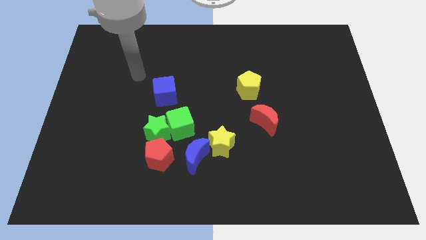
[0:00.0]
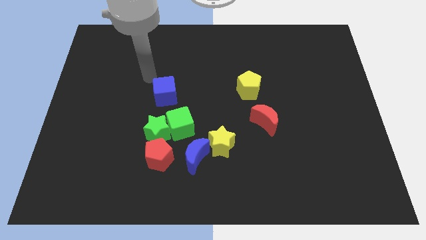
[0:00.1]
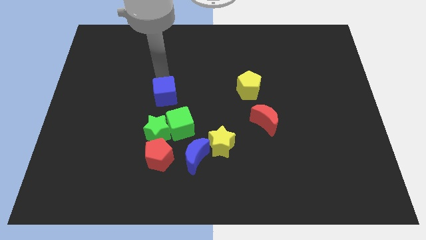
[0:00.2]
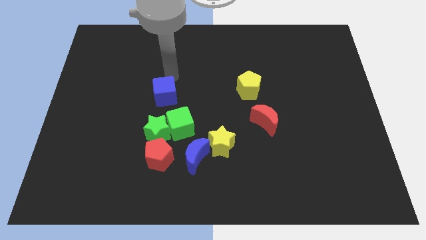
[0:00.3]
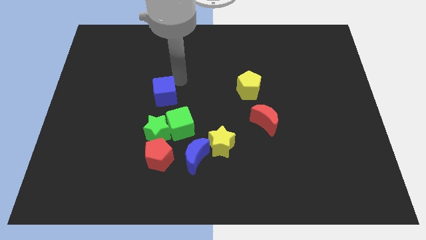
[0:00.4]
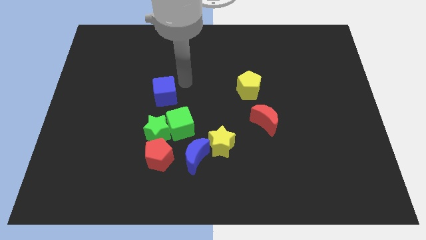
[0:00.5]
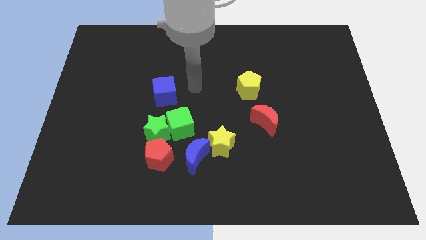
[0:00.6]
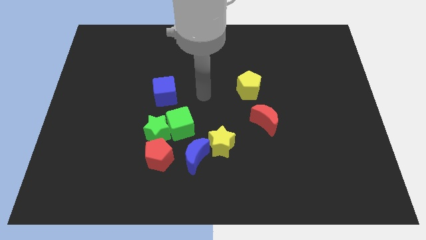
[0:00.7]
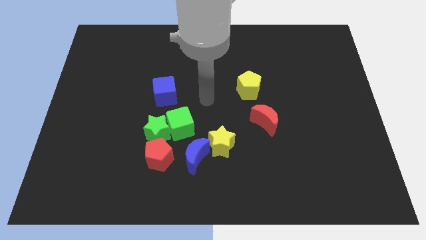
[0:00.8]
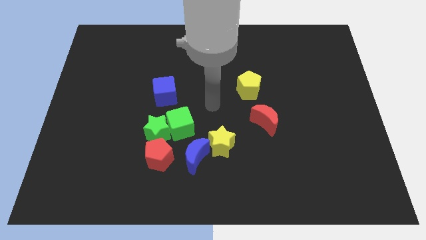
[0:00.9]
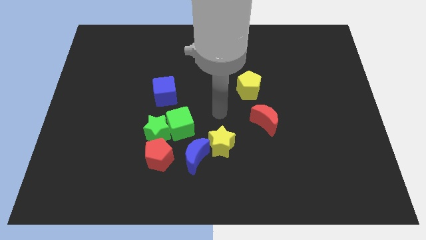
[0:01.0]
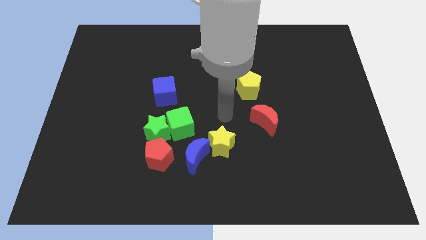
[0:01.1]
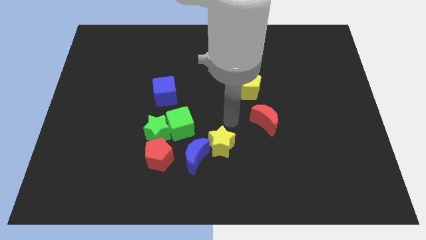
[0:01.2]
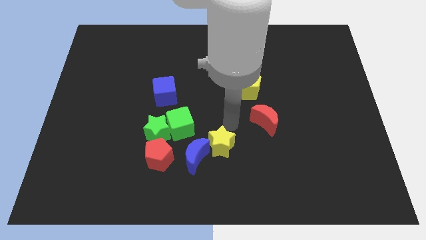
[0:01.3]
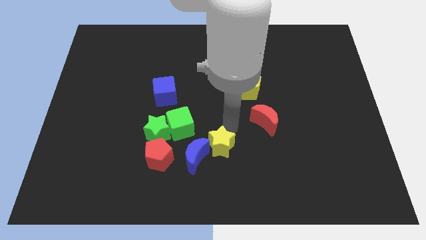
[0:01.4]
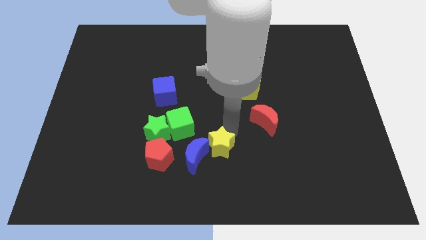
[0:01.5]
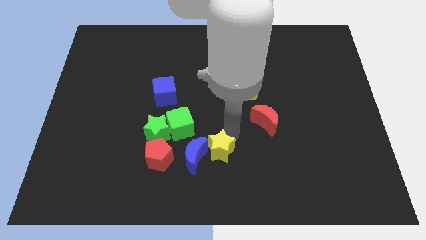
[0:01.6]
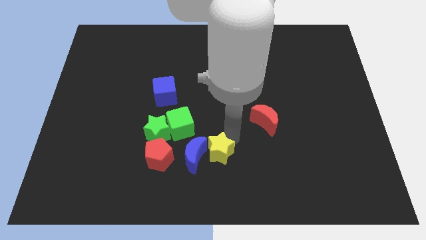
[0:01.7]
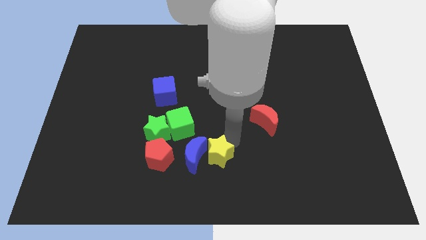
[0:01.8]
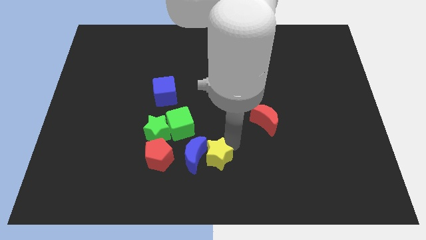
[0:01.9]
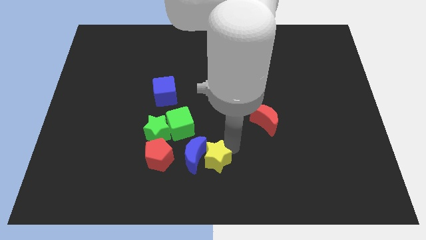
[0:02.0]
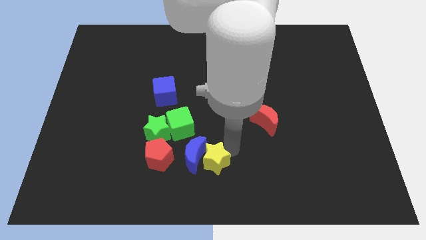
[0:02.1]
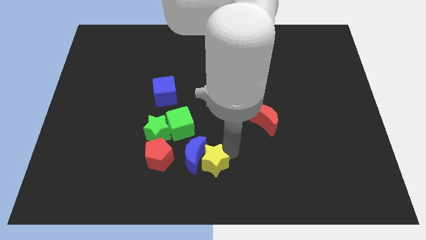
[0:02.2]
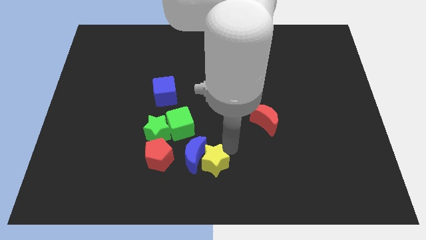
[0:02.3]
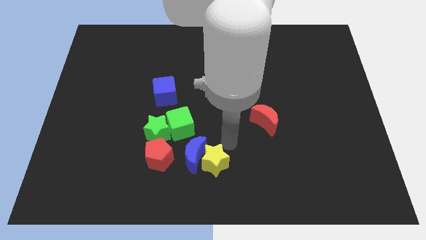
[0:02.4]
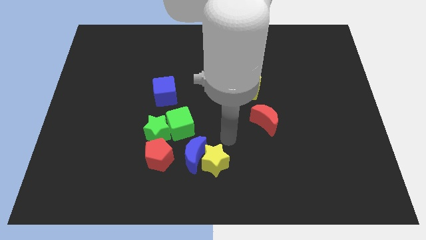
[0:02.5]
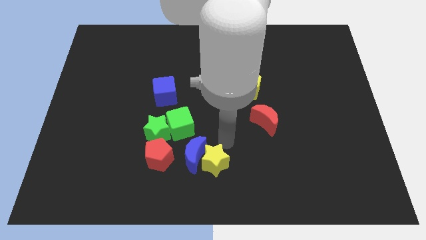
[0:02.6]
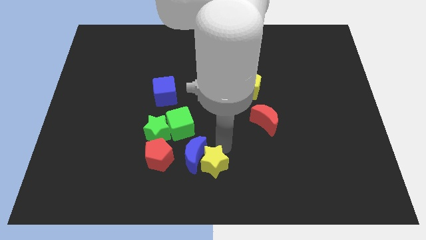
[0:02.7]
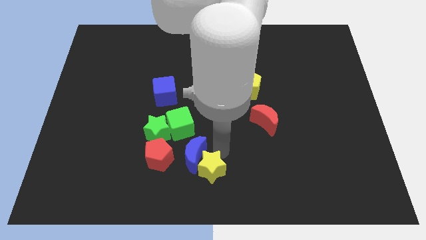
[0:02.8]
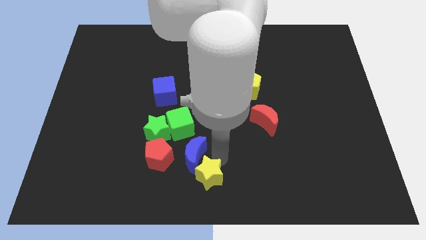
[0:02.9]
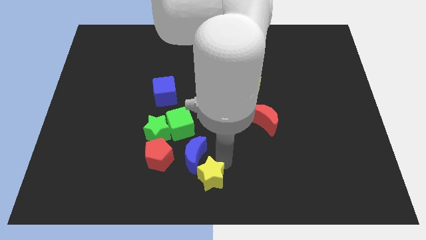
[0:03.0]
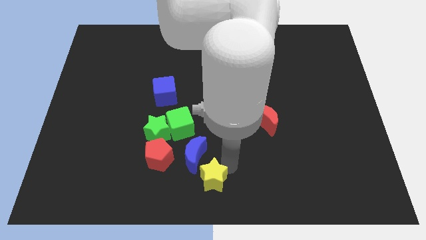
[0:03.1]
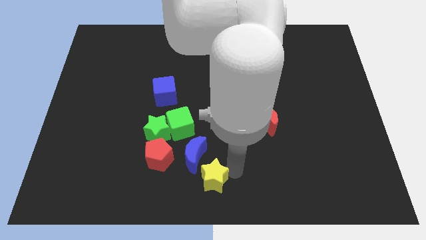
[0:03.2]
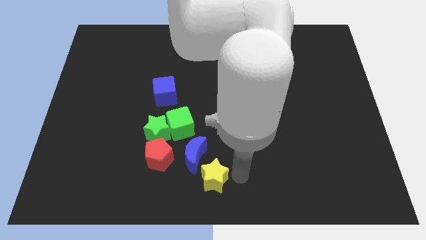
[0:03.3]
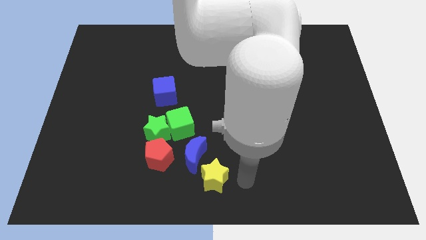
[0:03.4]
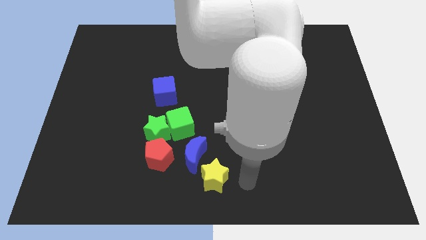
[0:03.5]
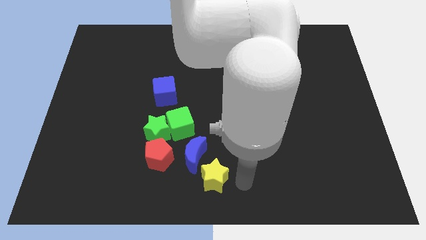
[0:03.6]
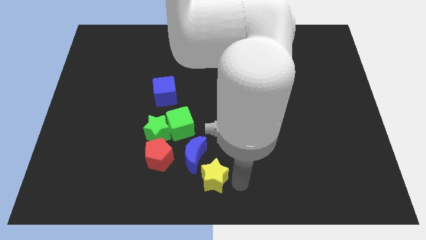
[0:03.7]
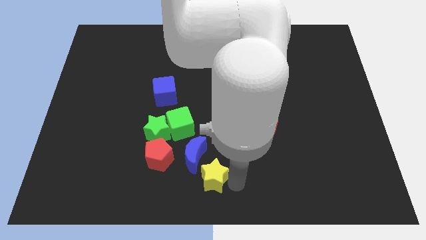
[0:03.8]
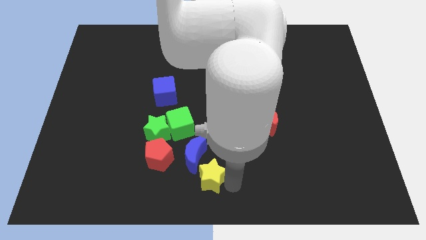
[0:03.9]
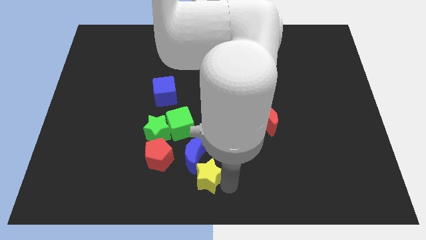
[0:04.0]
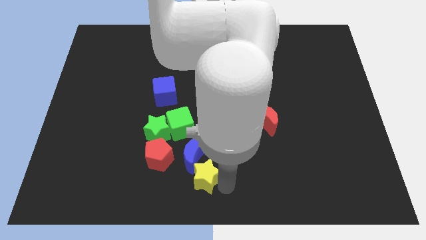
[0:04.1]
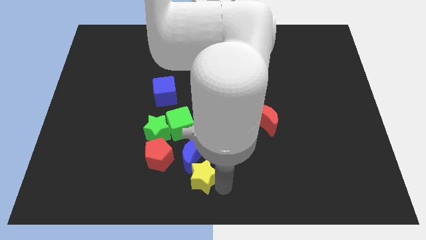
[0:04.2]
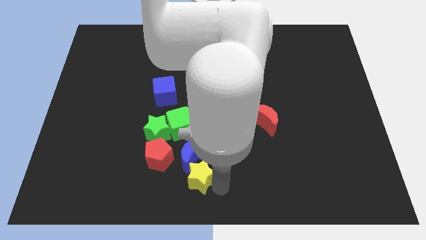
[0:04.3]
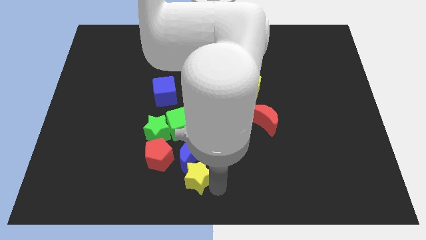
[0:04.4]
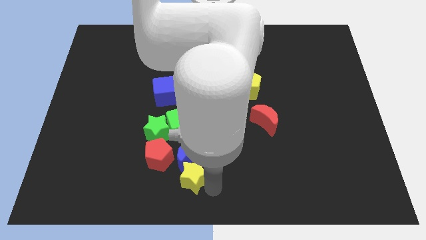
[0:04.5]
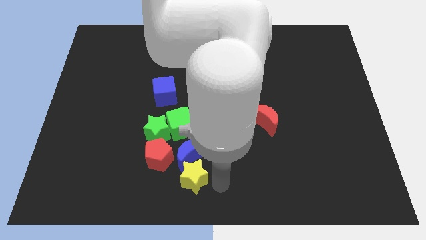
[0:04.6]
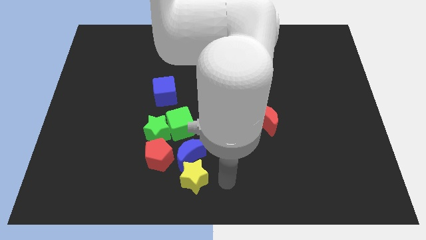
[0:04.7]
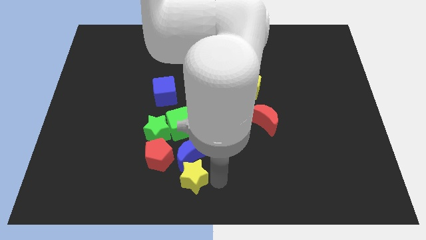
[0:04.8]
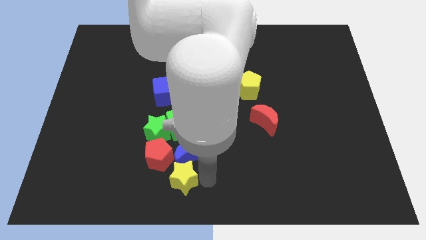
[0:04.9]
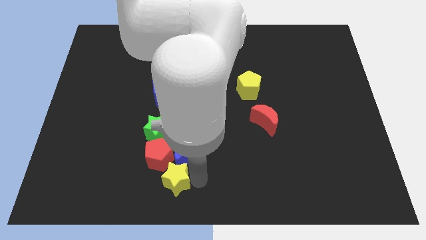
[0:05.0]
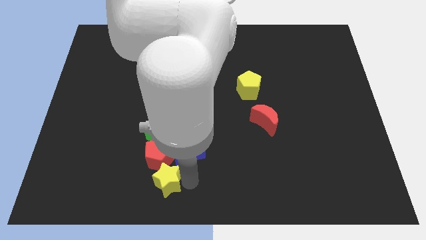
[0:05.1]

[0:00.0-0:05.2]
push the yellow star to the bottom of the green star

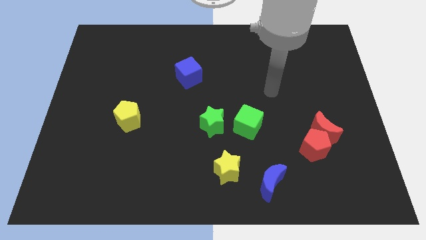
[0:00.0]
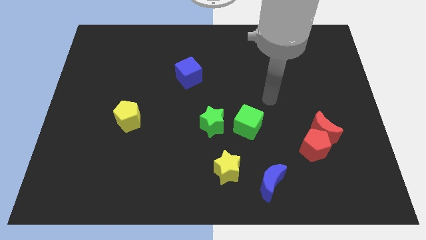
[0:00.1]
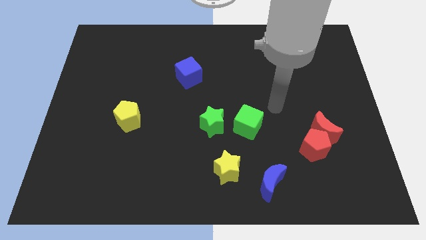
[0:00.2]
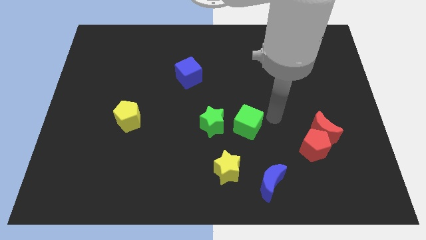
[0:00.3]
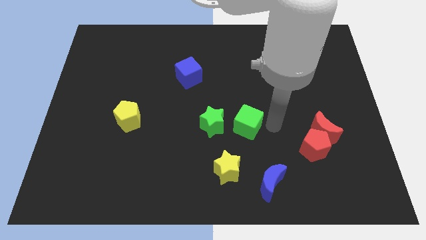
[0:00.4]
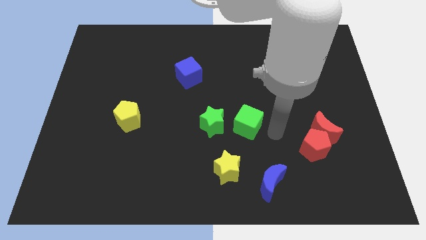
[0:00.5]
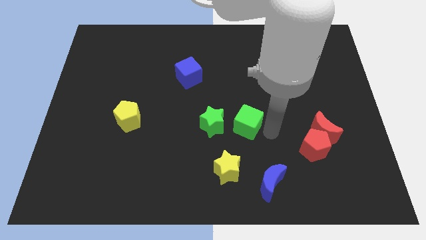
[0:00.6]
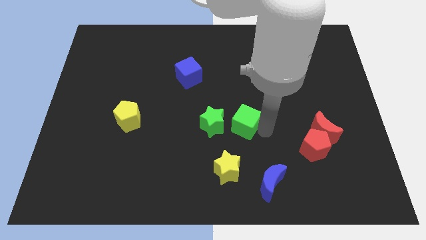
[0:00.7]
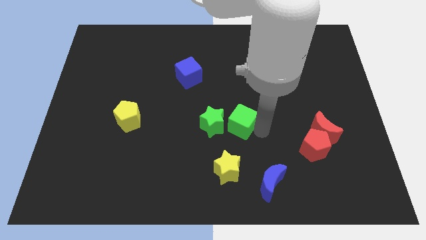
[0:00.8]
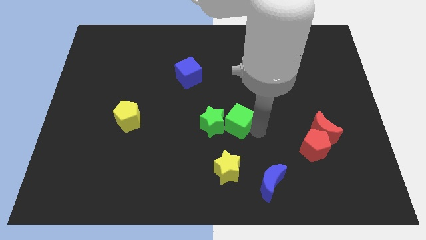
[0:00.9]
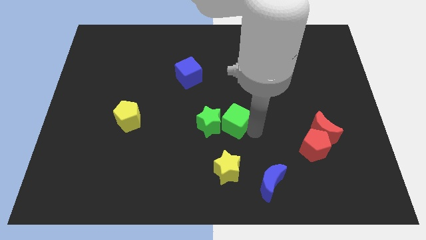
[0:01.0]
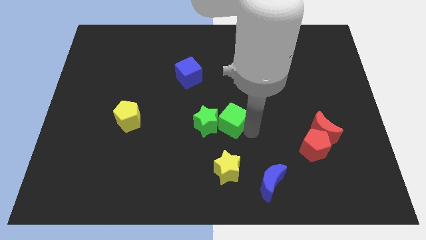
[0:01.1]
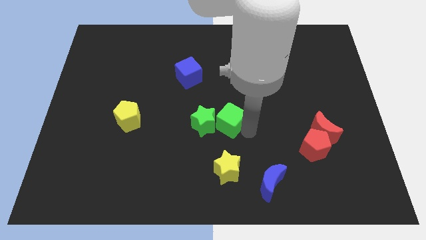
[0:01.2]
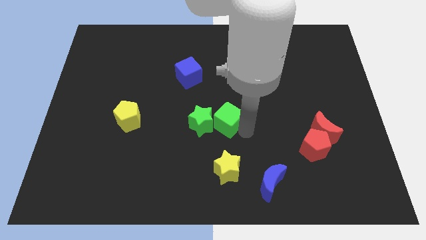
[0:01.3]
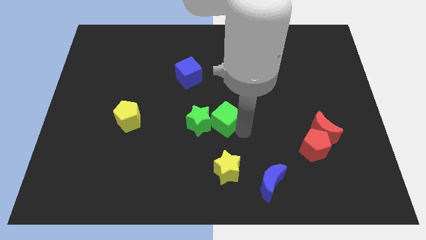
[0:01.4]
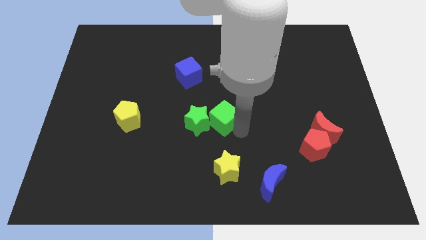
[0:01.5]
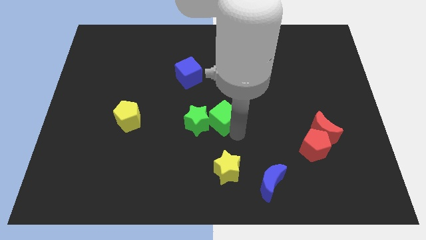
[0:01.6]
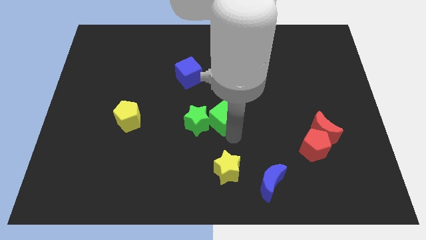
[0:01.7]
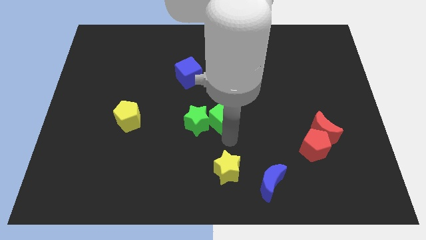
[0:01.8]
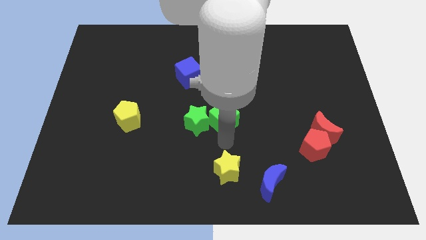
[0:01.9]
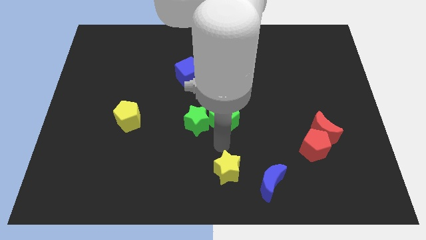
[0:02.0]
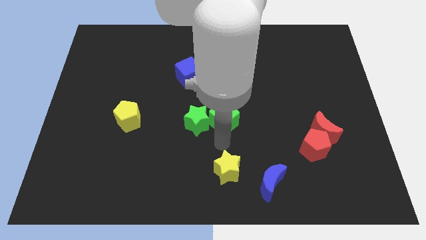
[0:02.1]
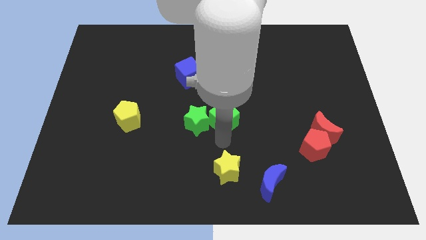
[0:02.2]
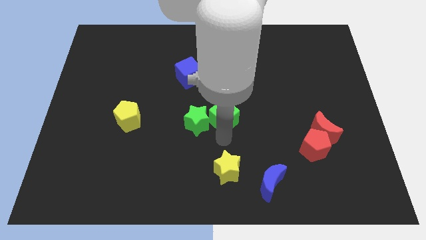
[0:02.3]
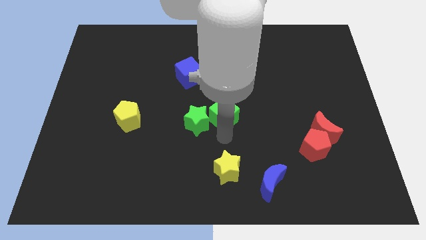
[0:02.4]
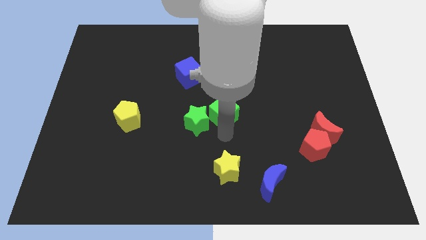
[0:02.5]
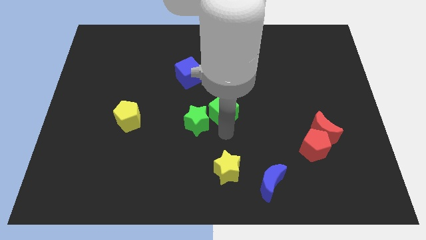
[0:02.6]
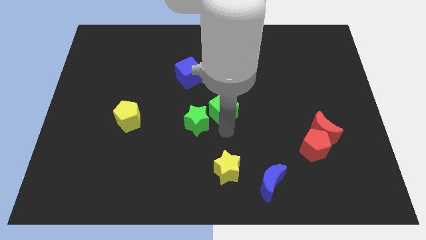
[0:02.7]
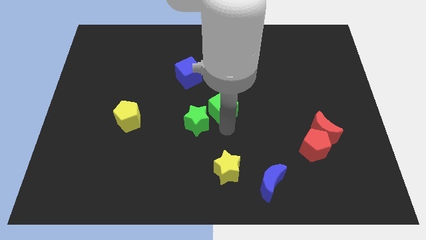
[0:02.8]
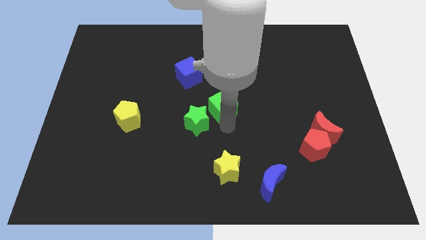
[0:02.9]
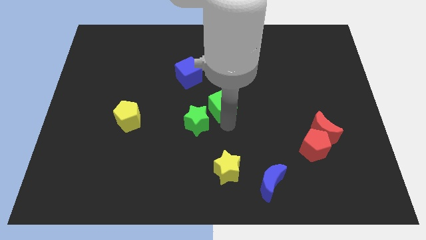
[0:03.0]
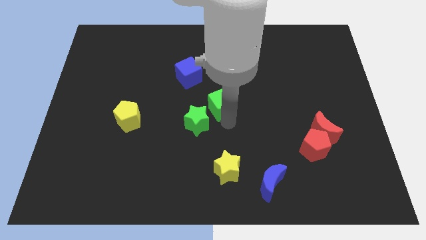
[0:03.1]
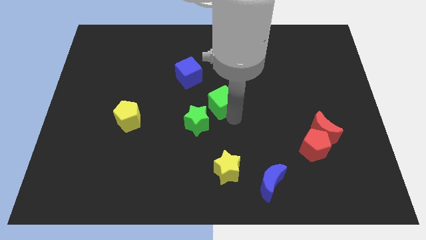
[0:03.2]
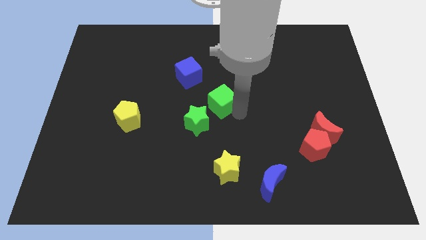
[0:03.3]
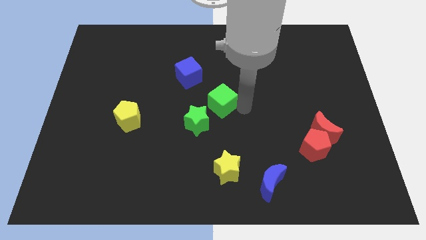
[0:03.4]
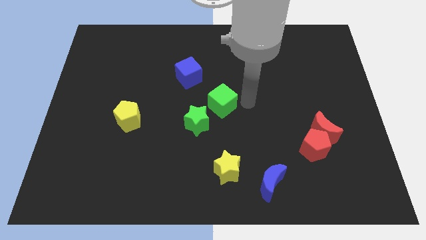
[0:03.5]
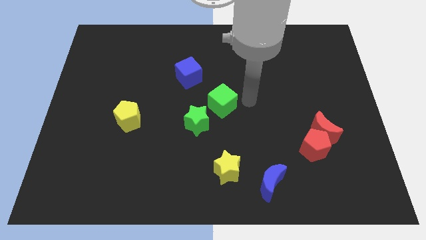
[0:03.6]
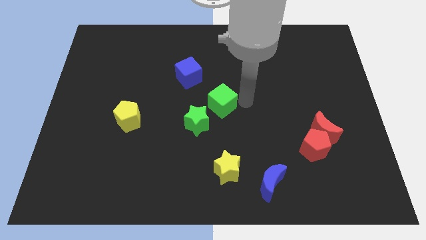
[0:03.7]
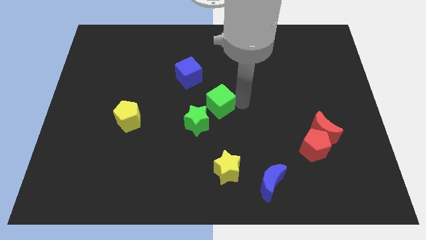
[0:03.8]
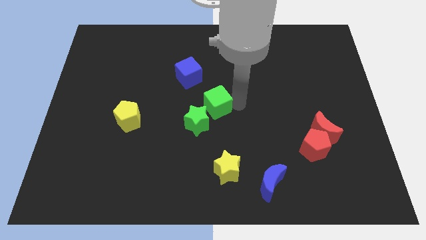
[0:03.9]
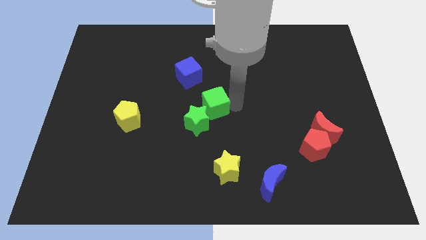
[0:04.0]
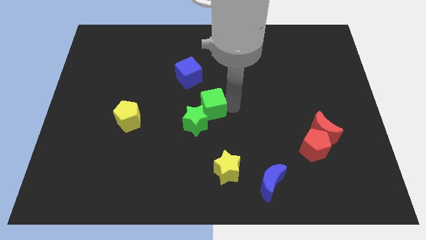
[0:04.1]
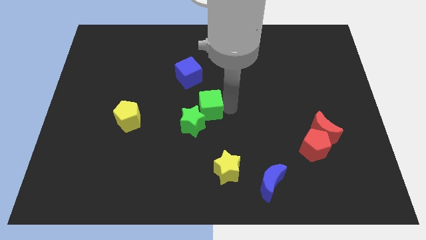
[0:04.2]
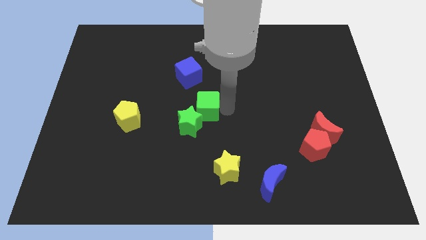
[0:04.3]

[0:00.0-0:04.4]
move the green cube to the bottom side of the blue cube
